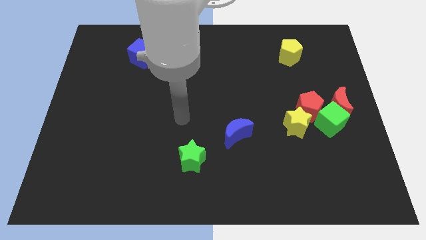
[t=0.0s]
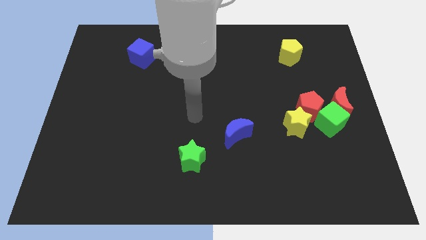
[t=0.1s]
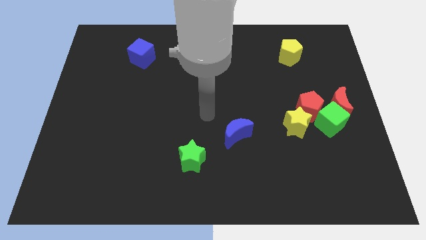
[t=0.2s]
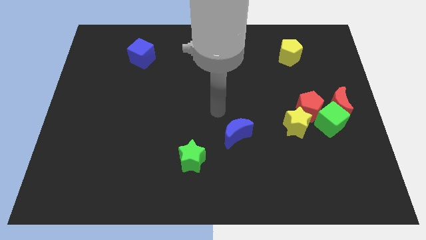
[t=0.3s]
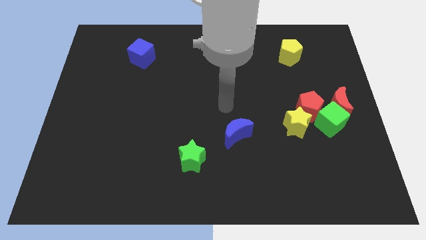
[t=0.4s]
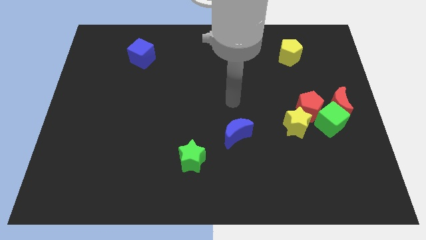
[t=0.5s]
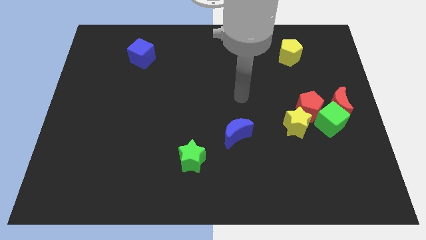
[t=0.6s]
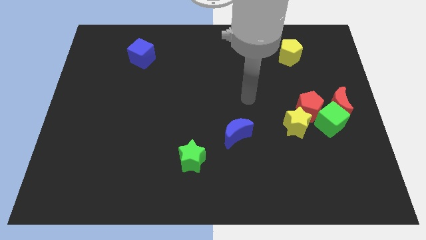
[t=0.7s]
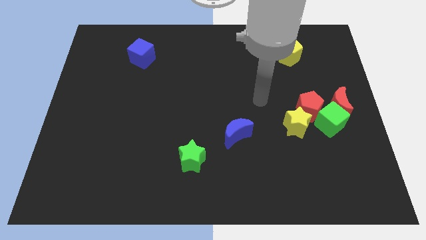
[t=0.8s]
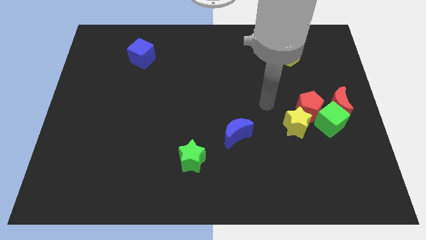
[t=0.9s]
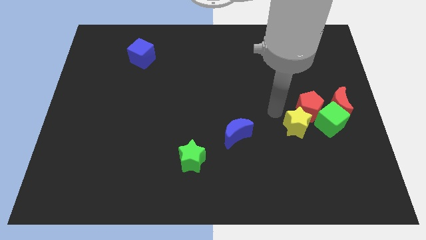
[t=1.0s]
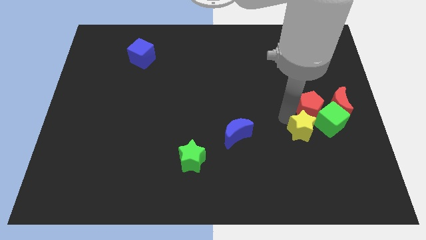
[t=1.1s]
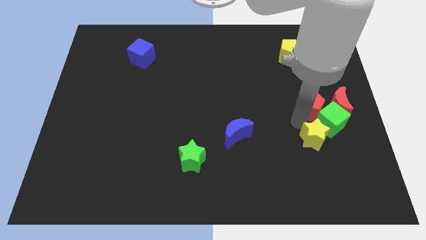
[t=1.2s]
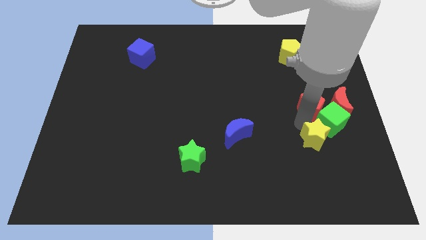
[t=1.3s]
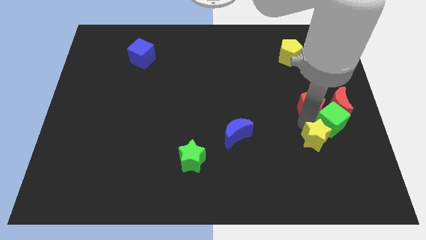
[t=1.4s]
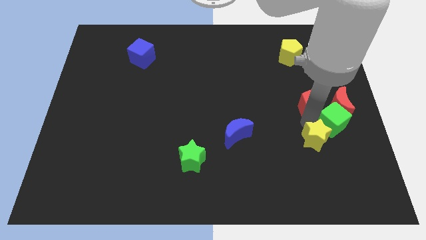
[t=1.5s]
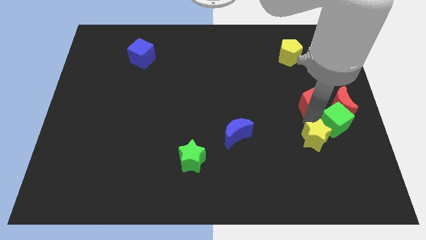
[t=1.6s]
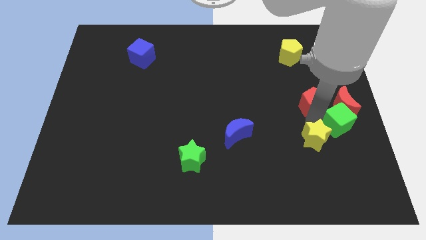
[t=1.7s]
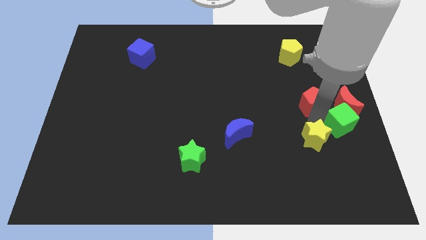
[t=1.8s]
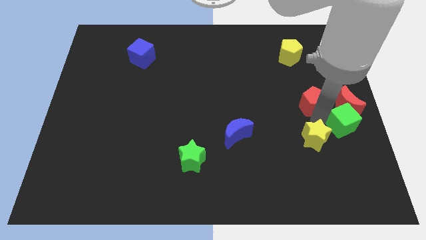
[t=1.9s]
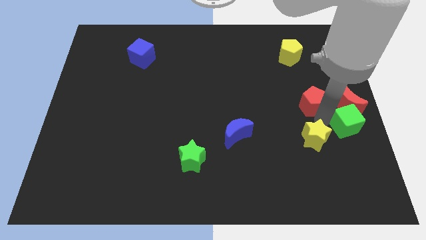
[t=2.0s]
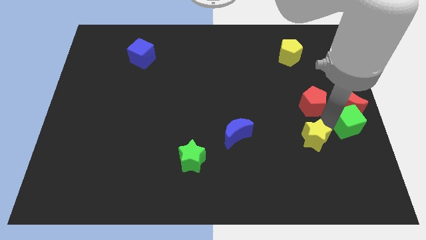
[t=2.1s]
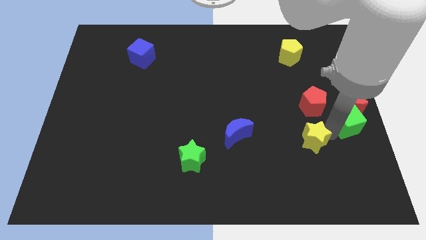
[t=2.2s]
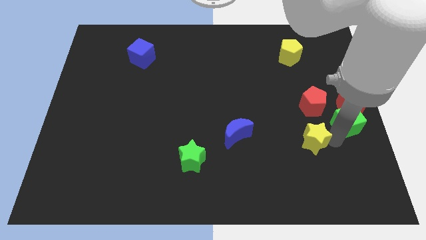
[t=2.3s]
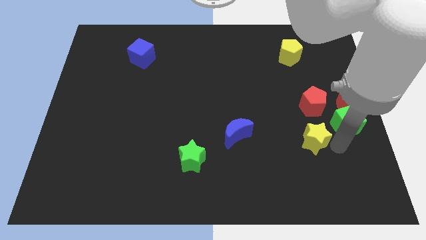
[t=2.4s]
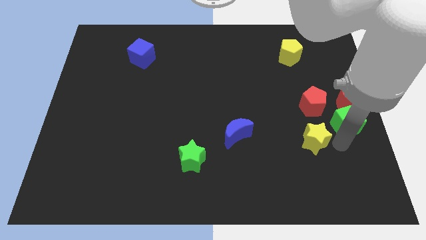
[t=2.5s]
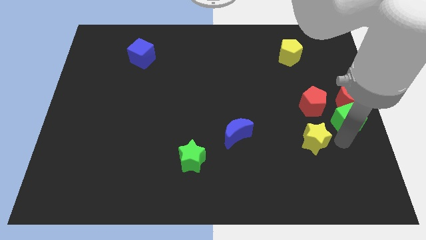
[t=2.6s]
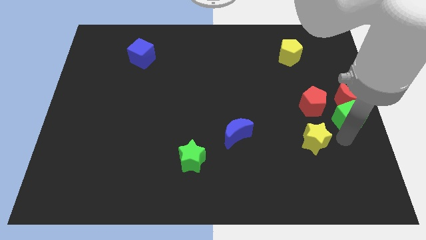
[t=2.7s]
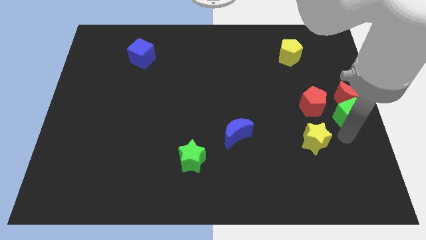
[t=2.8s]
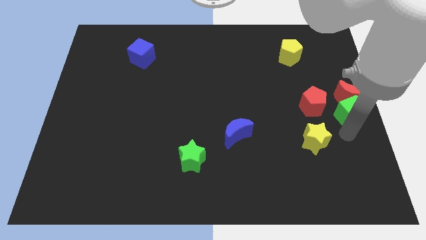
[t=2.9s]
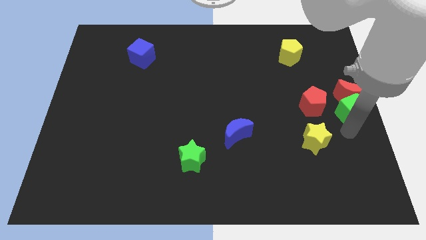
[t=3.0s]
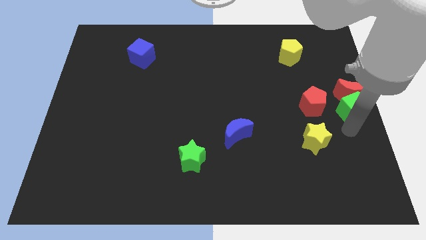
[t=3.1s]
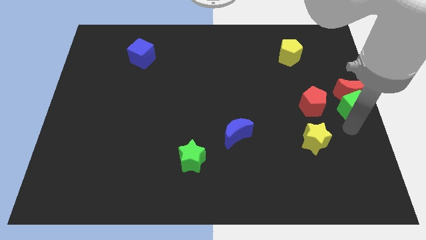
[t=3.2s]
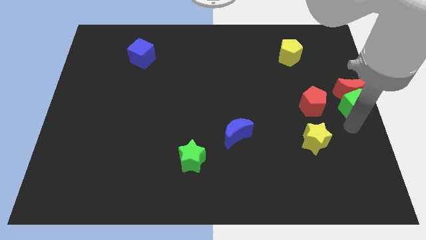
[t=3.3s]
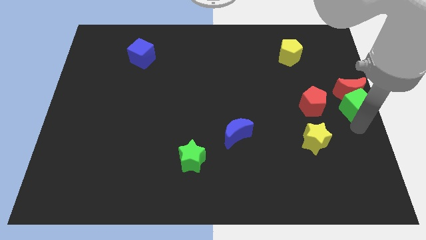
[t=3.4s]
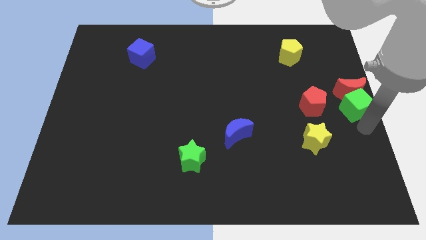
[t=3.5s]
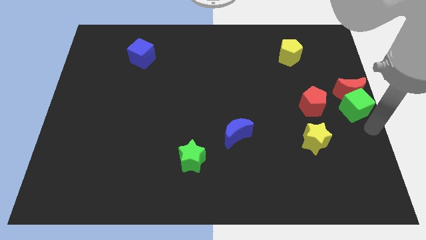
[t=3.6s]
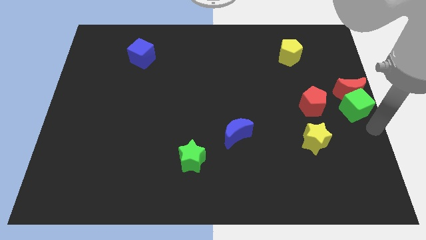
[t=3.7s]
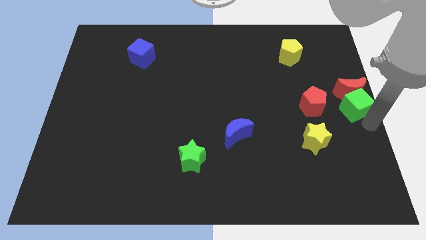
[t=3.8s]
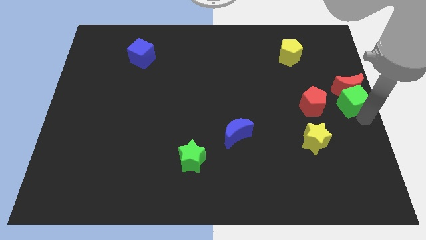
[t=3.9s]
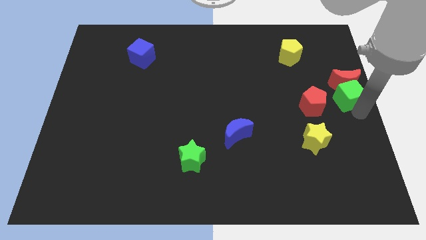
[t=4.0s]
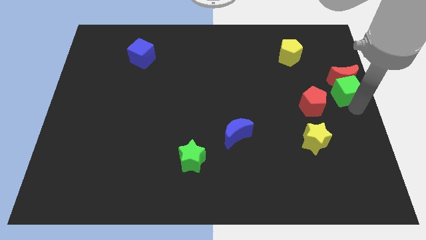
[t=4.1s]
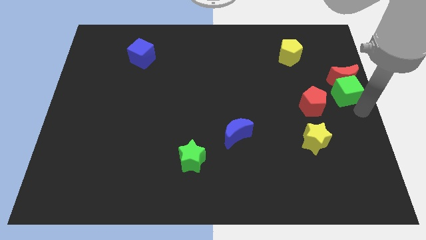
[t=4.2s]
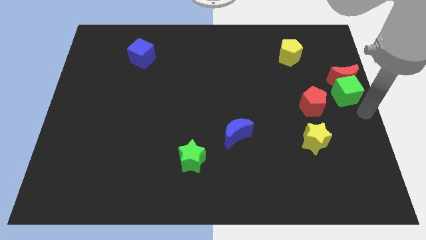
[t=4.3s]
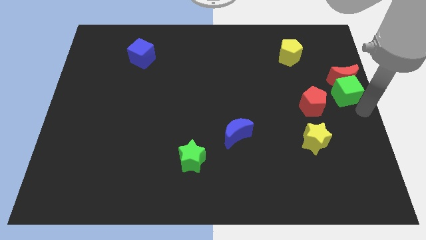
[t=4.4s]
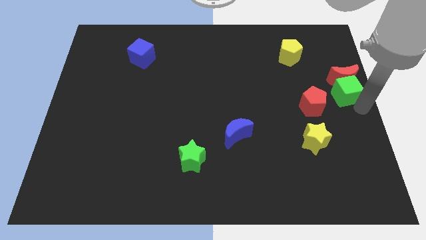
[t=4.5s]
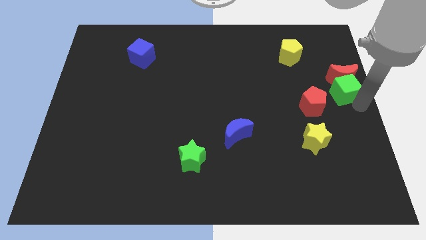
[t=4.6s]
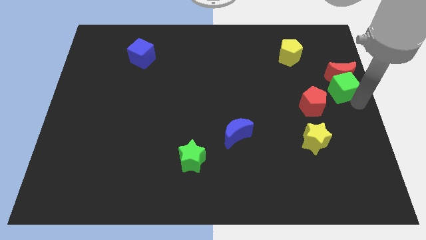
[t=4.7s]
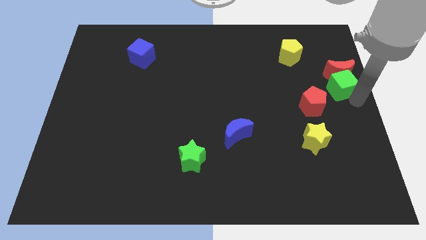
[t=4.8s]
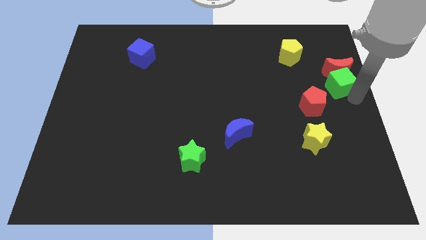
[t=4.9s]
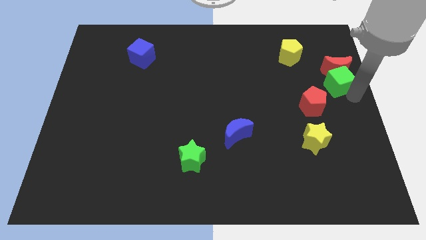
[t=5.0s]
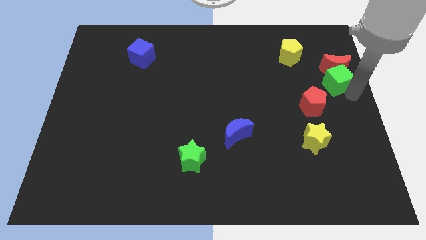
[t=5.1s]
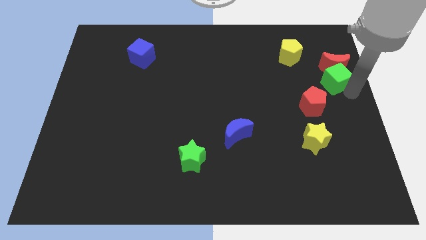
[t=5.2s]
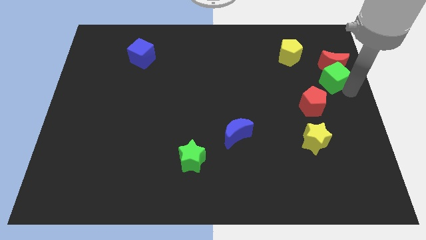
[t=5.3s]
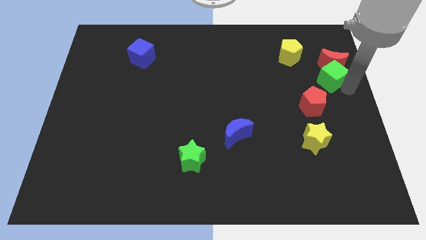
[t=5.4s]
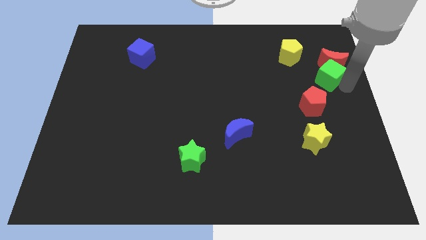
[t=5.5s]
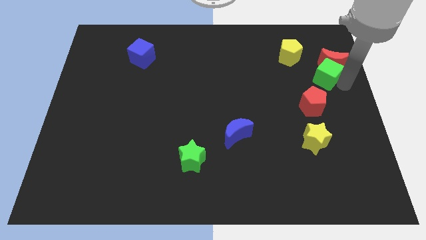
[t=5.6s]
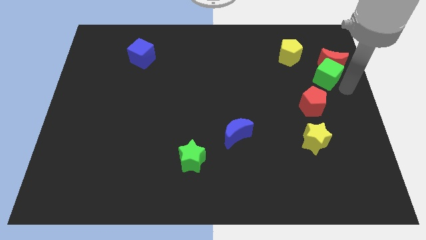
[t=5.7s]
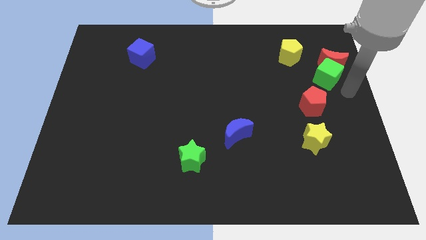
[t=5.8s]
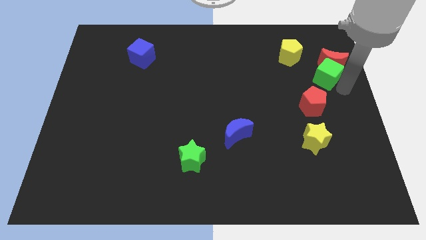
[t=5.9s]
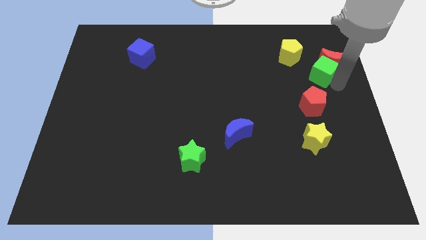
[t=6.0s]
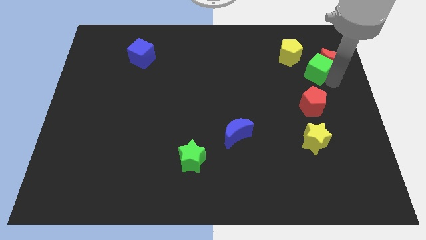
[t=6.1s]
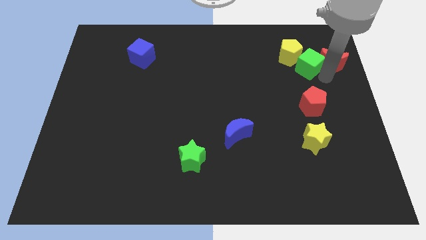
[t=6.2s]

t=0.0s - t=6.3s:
move the green cube to the yellow pentagon

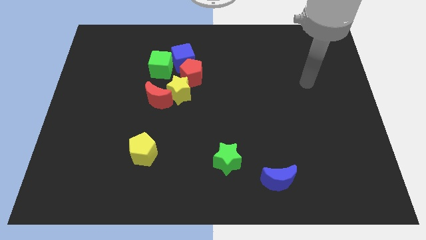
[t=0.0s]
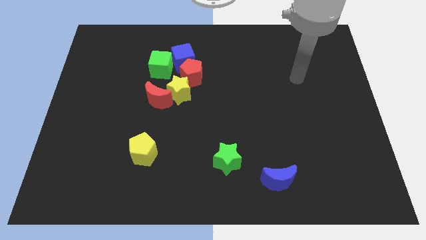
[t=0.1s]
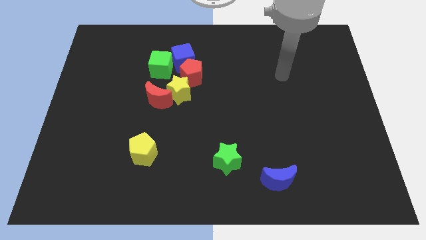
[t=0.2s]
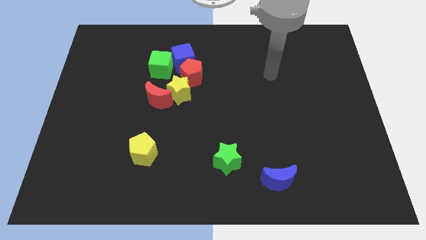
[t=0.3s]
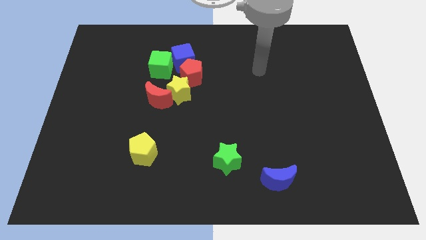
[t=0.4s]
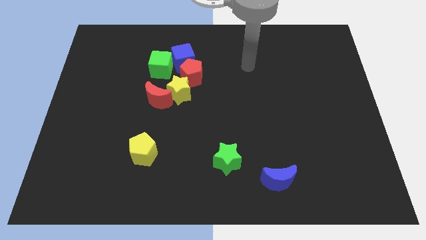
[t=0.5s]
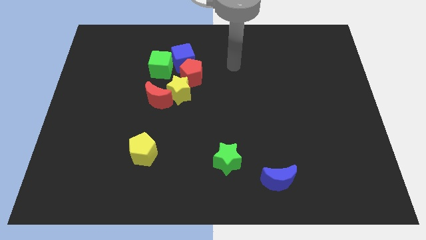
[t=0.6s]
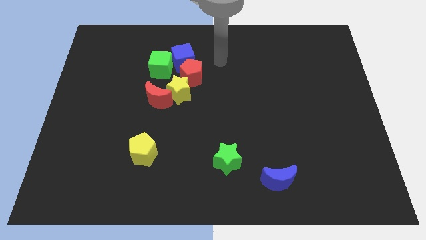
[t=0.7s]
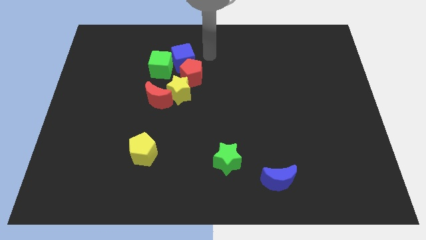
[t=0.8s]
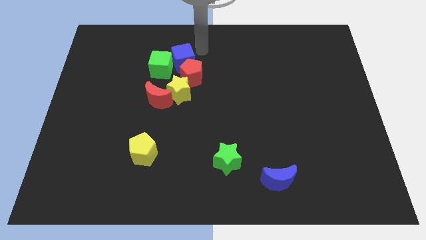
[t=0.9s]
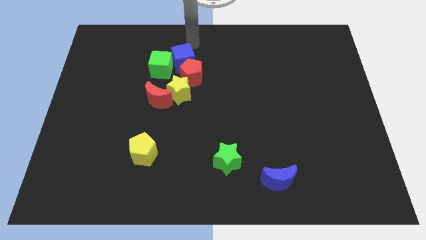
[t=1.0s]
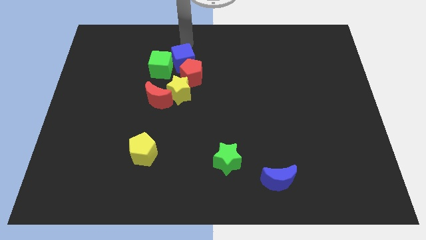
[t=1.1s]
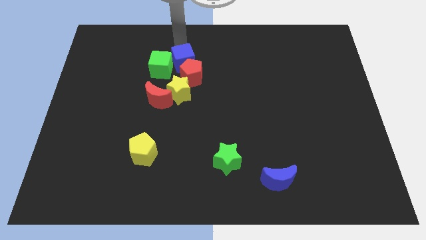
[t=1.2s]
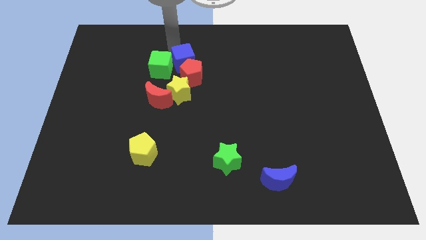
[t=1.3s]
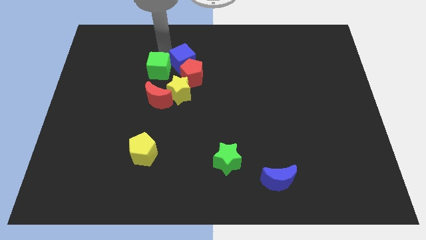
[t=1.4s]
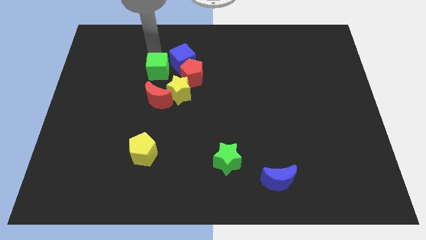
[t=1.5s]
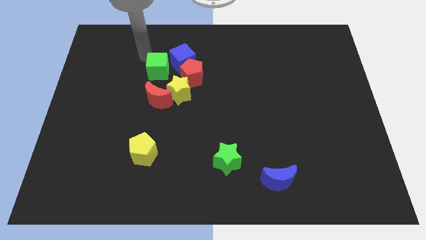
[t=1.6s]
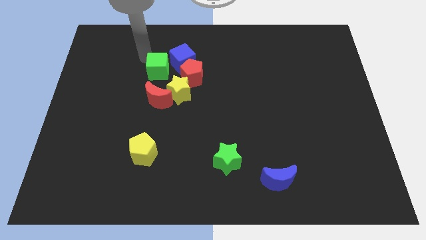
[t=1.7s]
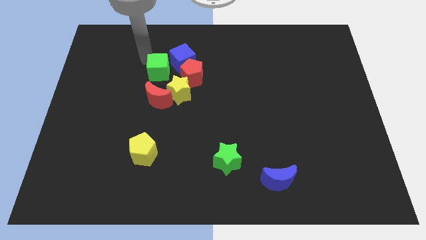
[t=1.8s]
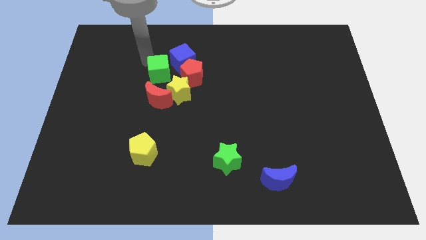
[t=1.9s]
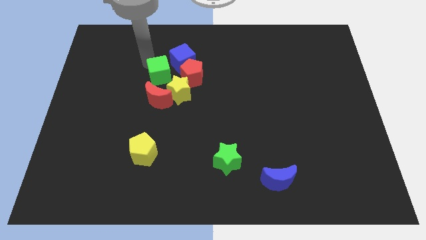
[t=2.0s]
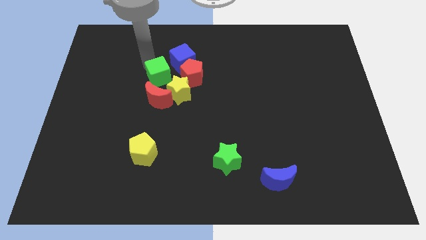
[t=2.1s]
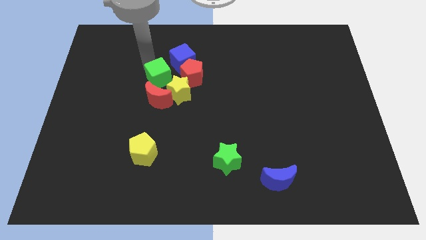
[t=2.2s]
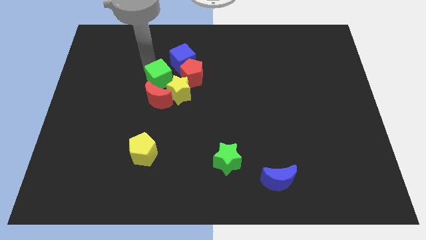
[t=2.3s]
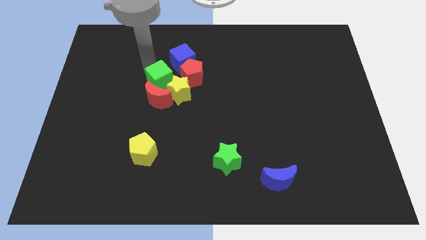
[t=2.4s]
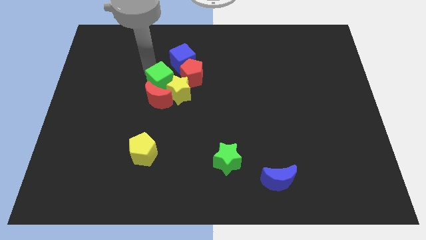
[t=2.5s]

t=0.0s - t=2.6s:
move the green cube to the yellow star
